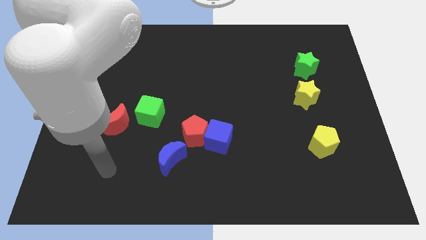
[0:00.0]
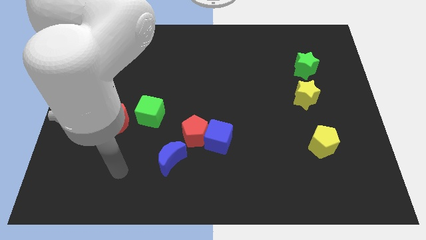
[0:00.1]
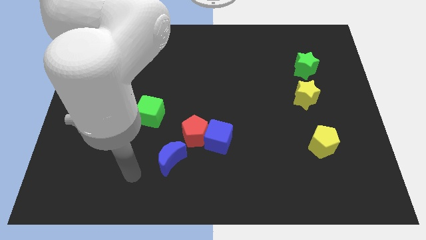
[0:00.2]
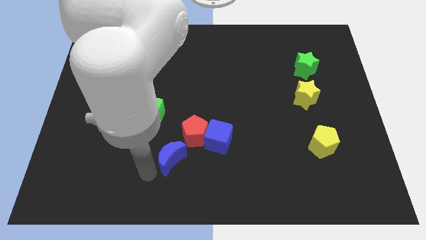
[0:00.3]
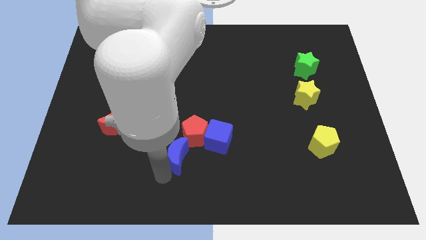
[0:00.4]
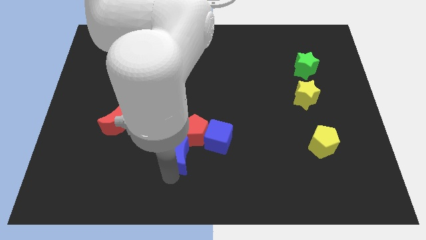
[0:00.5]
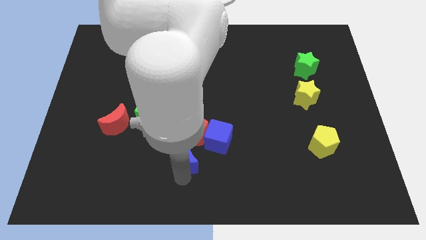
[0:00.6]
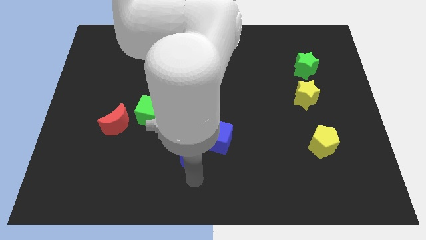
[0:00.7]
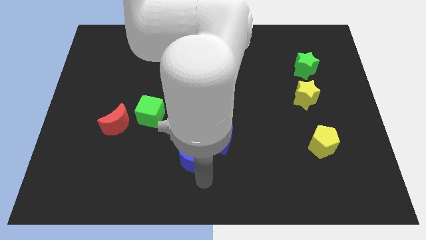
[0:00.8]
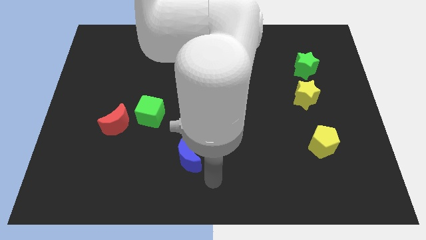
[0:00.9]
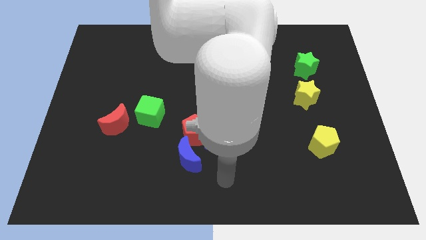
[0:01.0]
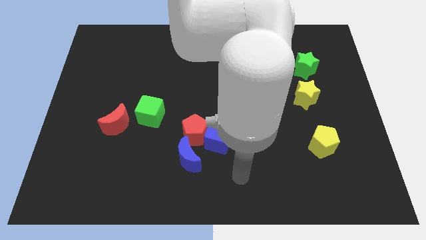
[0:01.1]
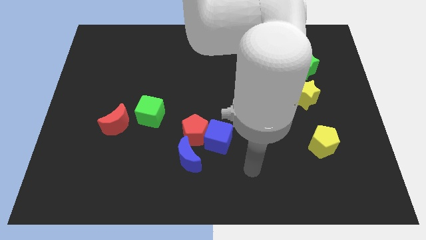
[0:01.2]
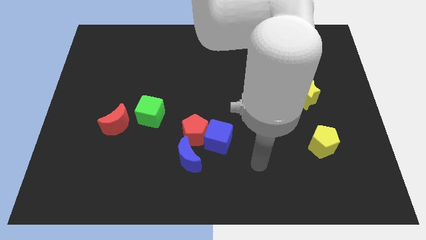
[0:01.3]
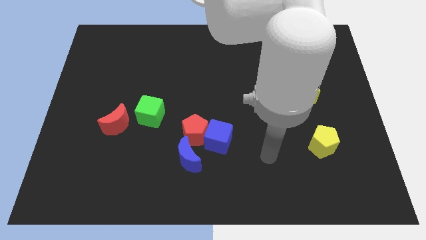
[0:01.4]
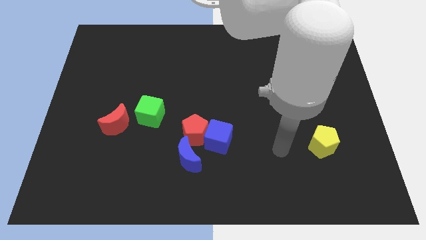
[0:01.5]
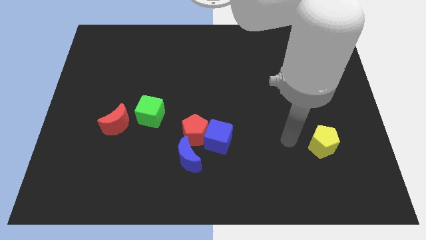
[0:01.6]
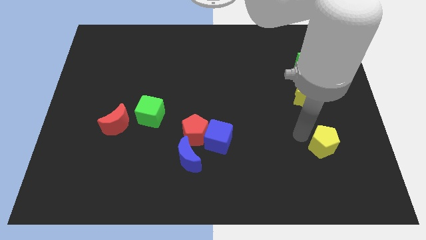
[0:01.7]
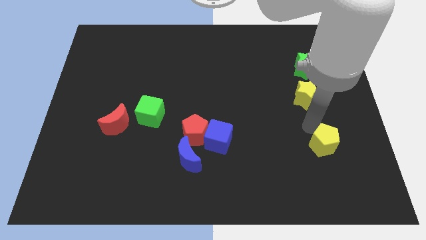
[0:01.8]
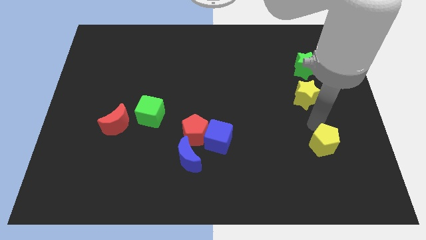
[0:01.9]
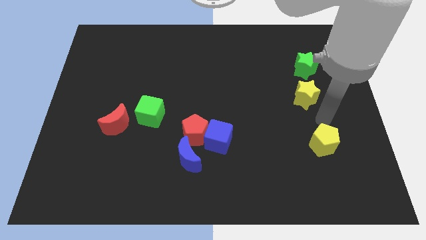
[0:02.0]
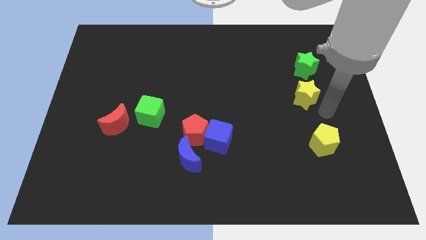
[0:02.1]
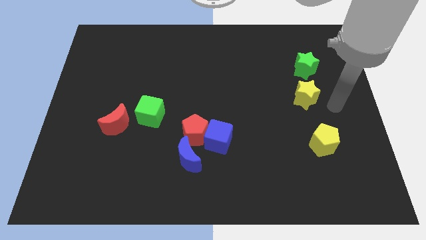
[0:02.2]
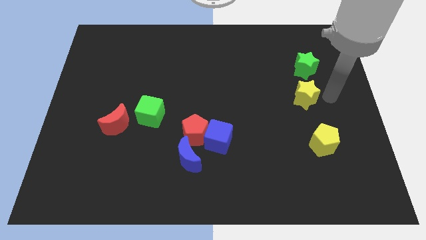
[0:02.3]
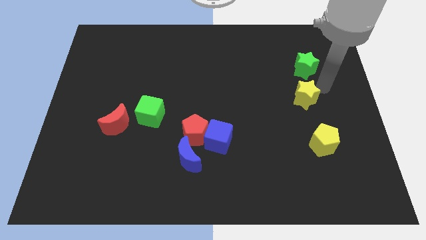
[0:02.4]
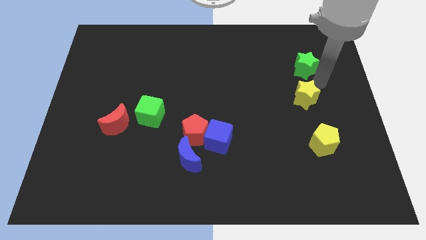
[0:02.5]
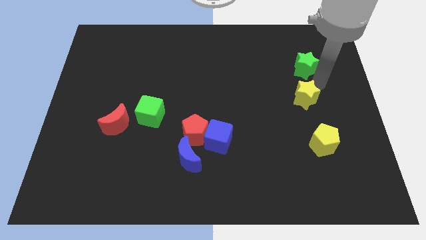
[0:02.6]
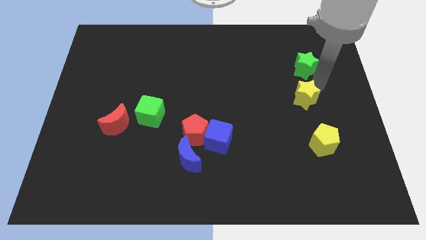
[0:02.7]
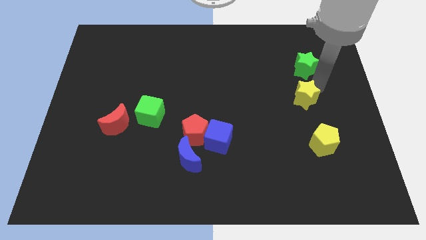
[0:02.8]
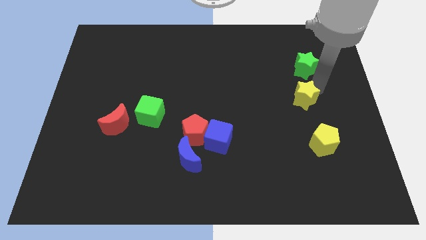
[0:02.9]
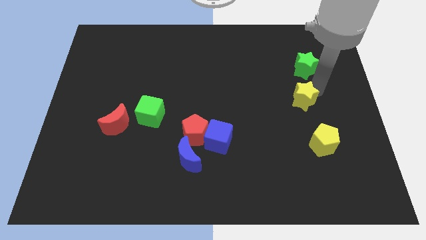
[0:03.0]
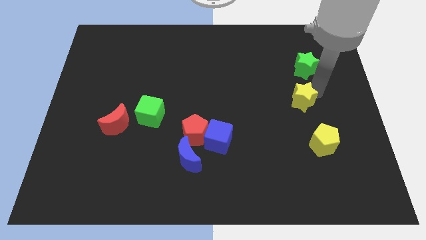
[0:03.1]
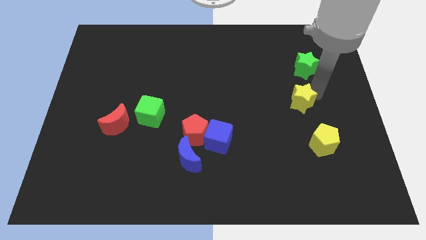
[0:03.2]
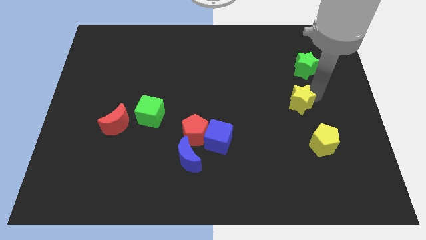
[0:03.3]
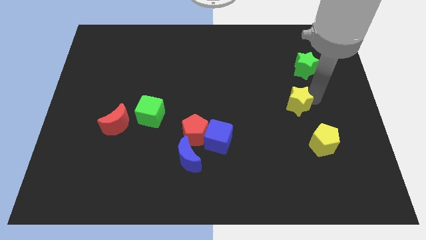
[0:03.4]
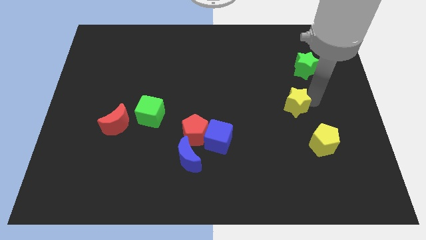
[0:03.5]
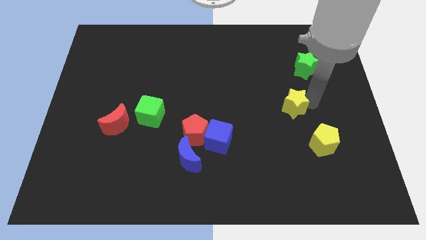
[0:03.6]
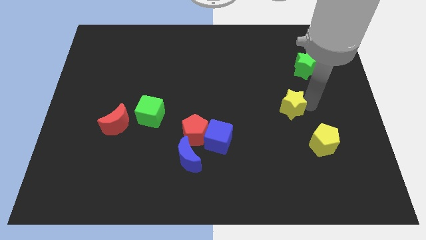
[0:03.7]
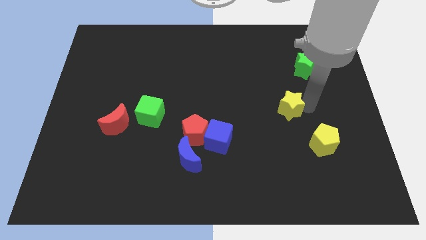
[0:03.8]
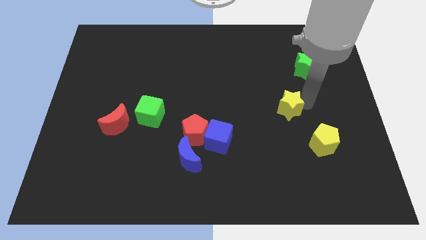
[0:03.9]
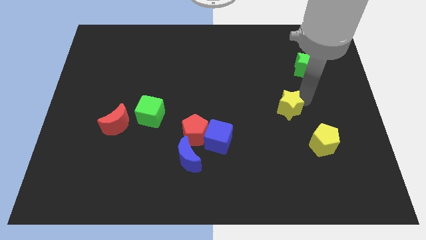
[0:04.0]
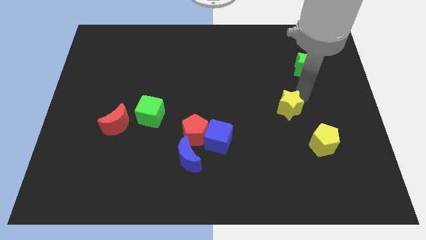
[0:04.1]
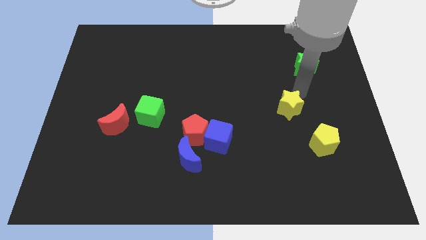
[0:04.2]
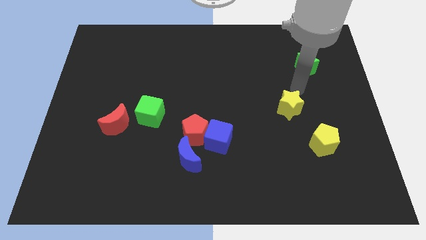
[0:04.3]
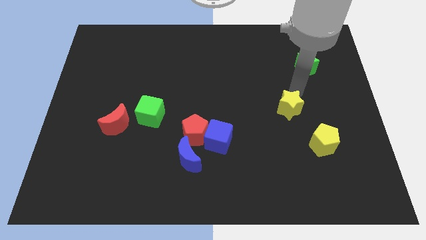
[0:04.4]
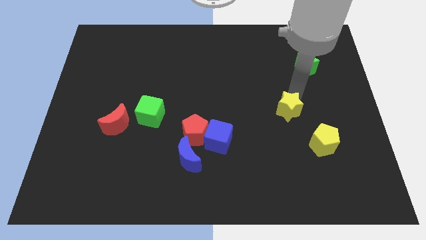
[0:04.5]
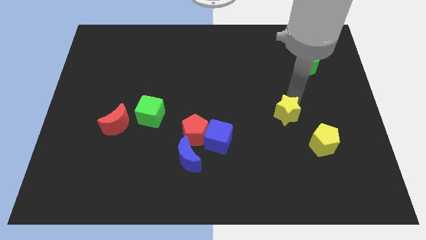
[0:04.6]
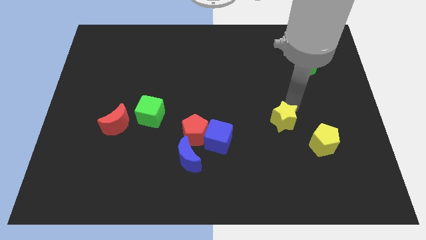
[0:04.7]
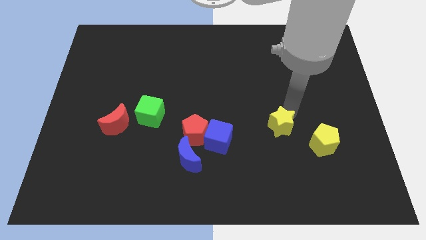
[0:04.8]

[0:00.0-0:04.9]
slide the yellow star to the right of the blue cube

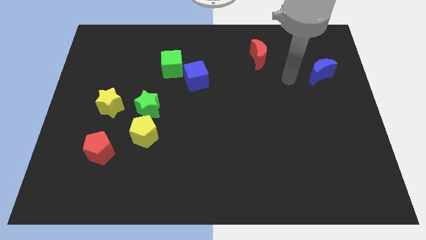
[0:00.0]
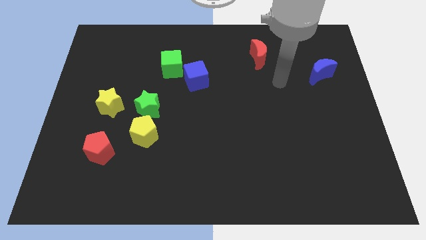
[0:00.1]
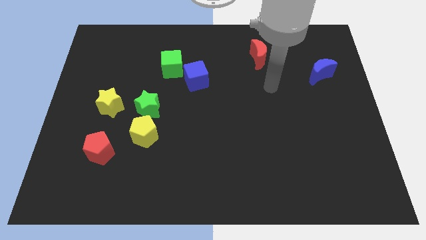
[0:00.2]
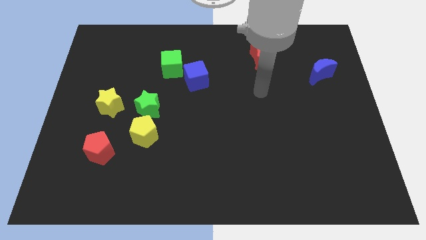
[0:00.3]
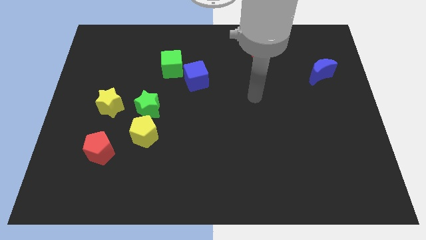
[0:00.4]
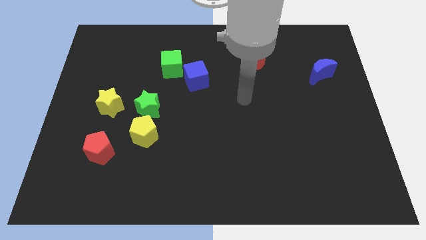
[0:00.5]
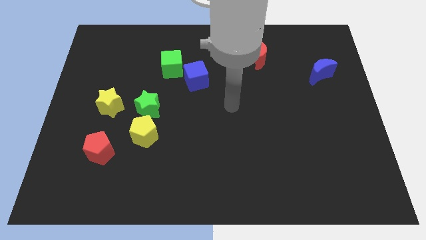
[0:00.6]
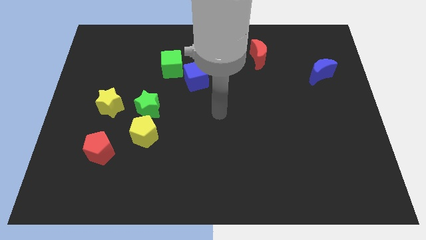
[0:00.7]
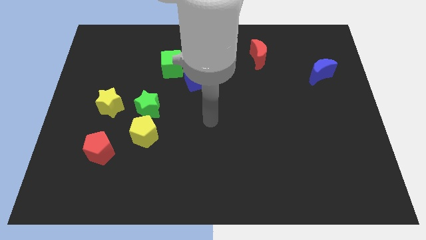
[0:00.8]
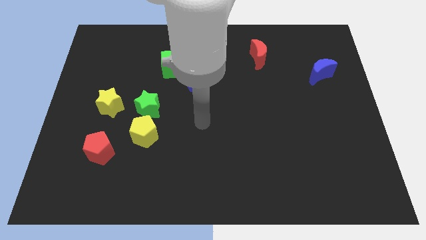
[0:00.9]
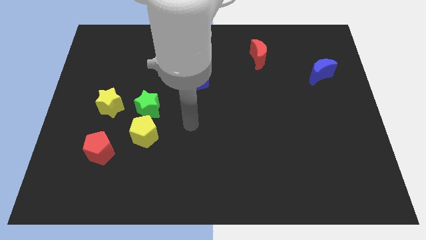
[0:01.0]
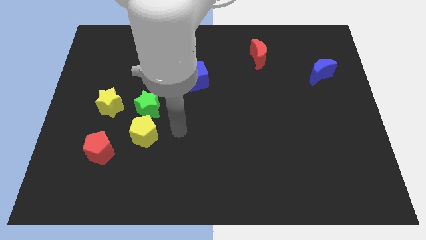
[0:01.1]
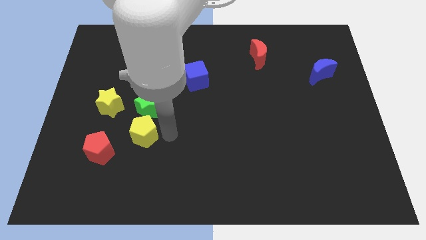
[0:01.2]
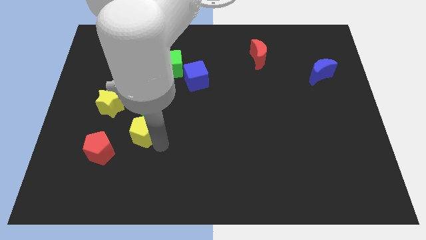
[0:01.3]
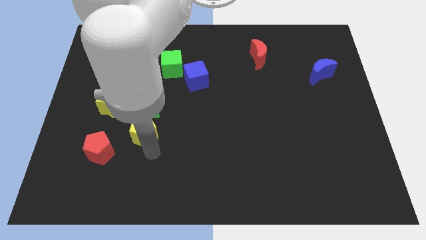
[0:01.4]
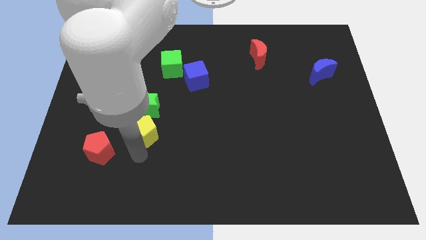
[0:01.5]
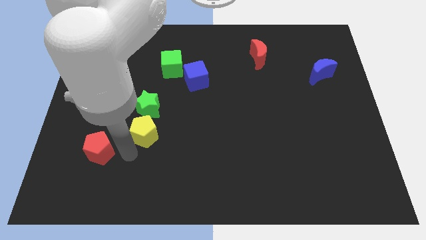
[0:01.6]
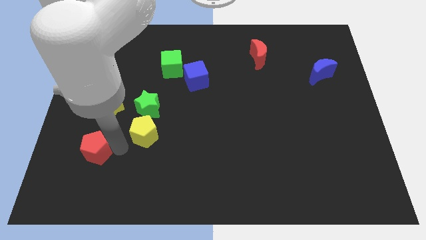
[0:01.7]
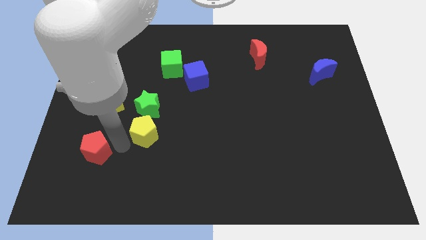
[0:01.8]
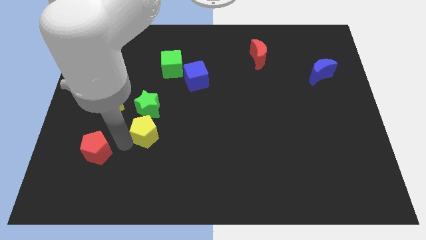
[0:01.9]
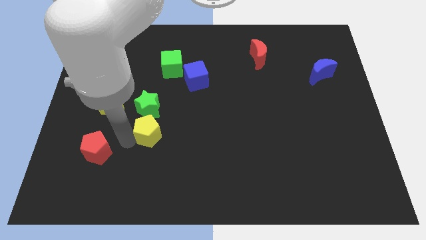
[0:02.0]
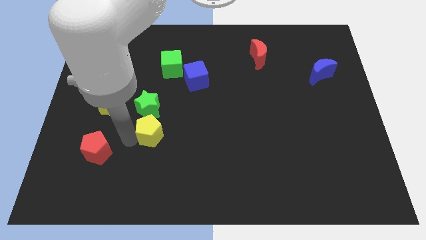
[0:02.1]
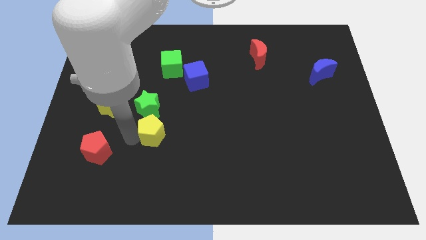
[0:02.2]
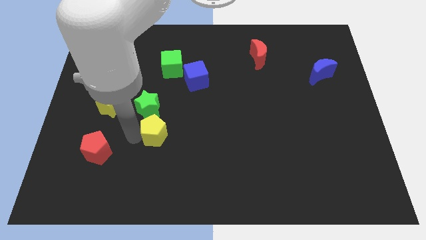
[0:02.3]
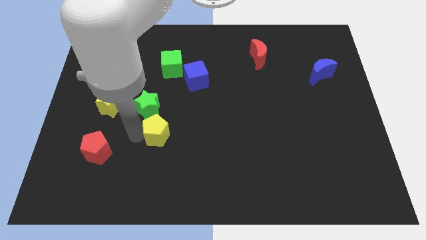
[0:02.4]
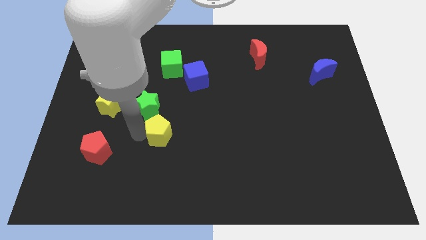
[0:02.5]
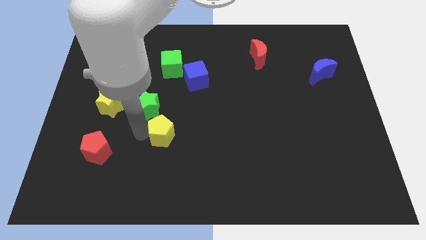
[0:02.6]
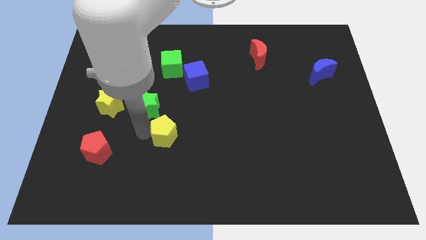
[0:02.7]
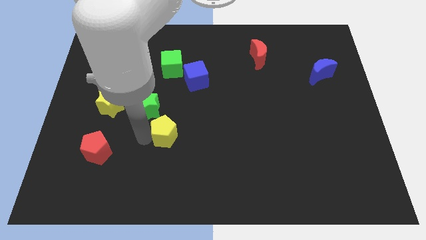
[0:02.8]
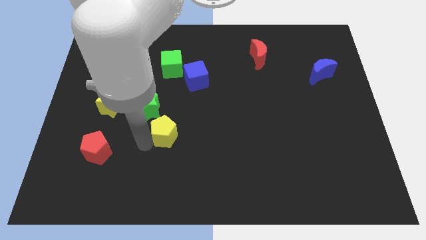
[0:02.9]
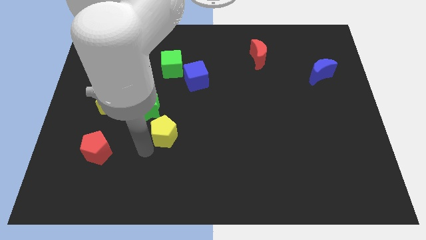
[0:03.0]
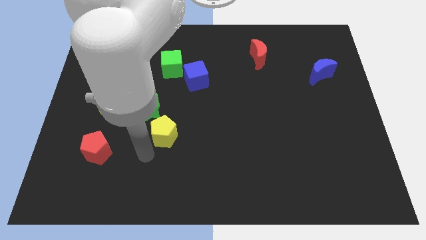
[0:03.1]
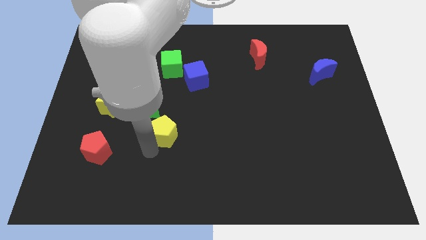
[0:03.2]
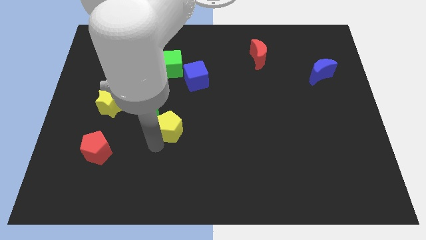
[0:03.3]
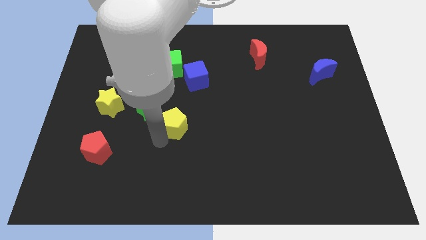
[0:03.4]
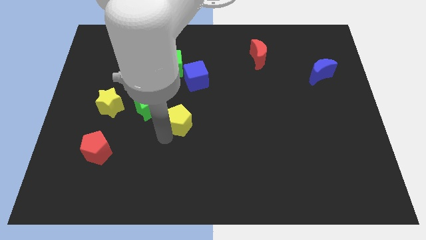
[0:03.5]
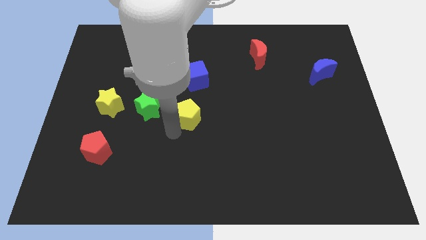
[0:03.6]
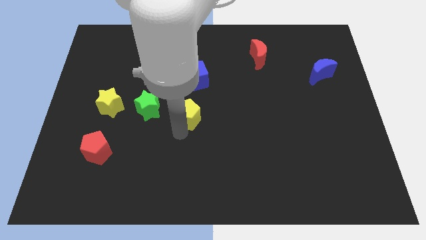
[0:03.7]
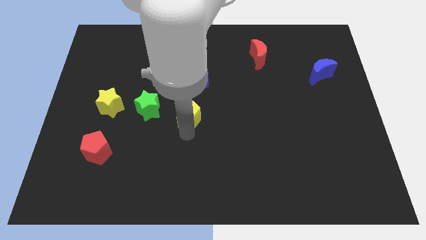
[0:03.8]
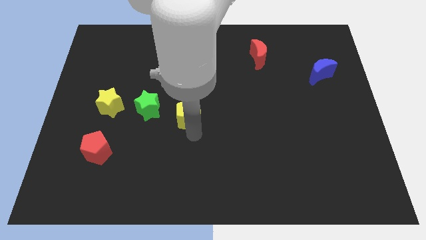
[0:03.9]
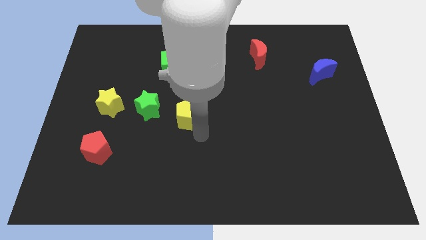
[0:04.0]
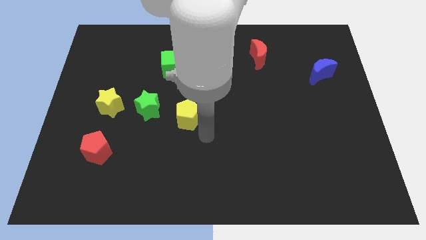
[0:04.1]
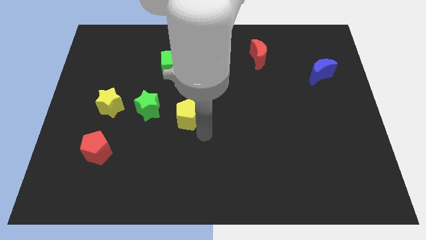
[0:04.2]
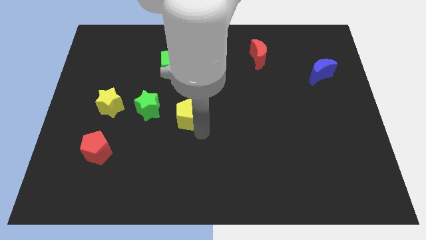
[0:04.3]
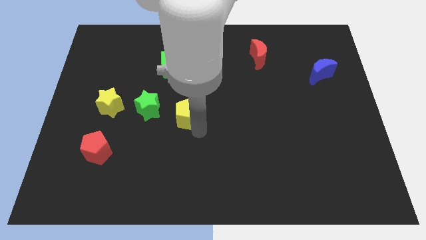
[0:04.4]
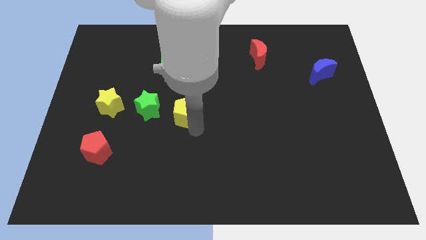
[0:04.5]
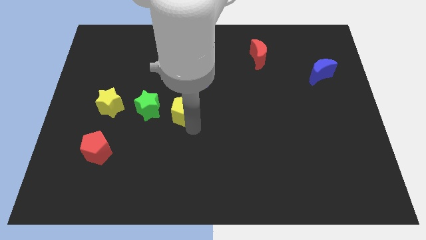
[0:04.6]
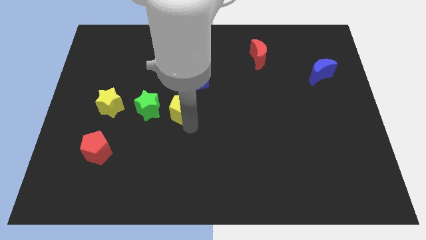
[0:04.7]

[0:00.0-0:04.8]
push the yellow pentagon to the bottom side of the green cube
